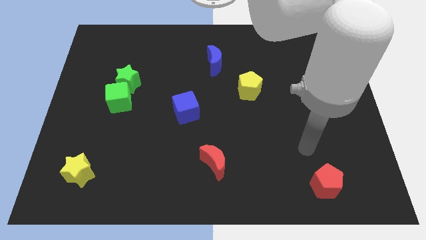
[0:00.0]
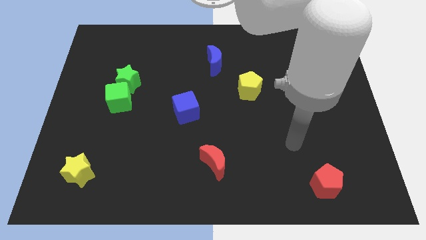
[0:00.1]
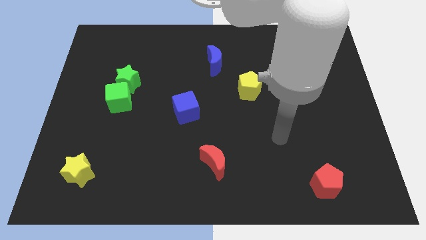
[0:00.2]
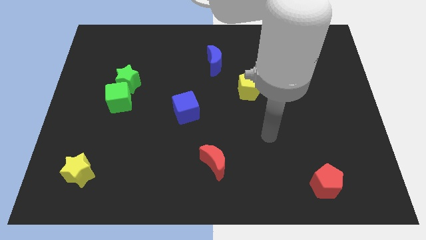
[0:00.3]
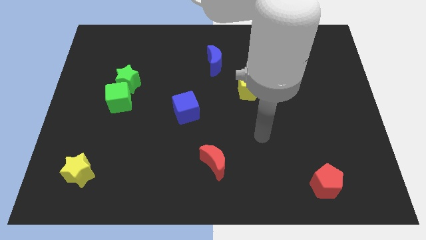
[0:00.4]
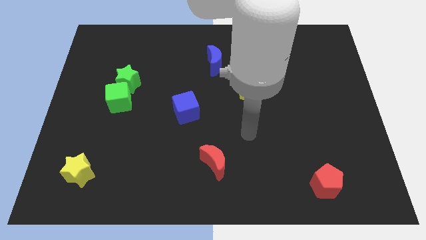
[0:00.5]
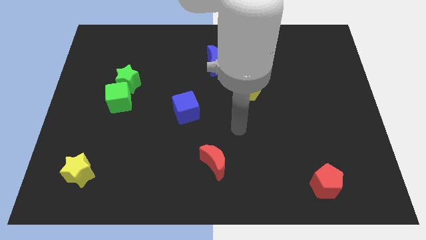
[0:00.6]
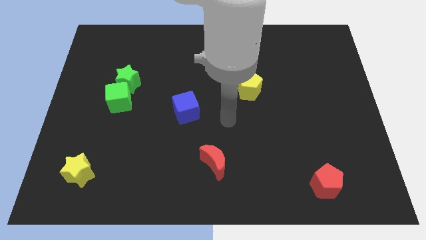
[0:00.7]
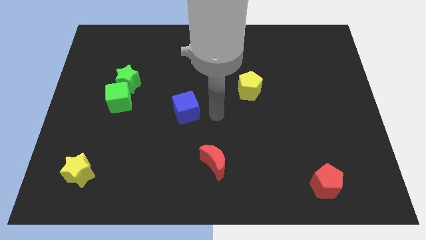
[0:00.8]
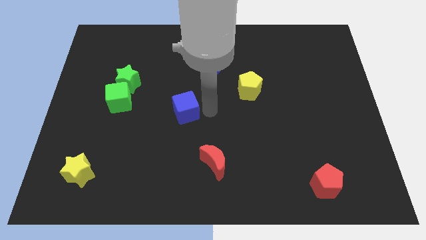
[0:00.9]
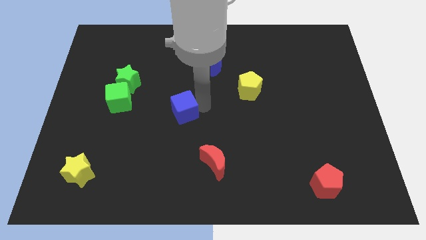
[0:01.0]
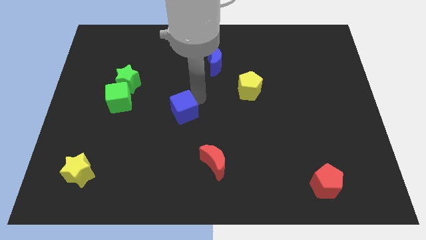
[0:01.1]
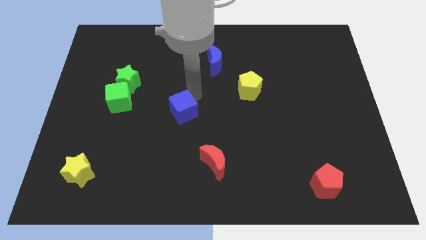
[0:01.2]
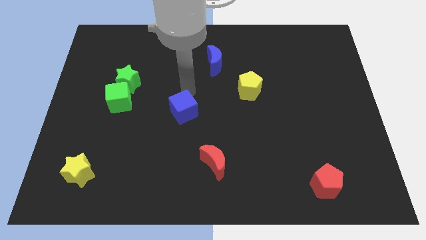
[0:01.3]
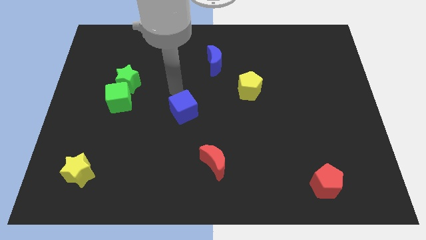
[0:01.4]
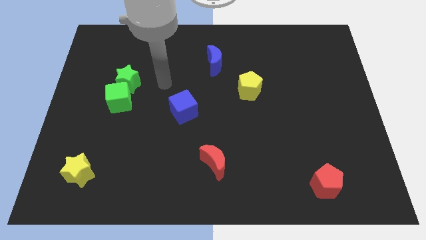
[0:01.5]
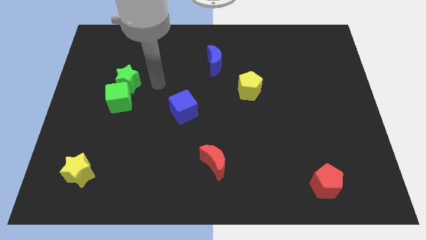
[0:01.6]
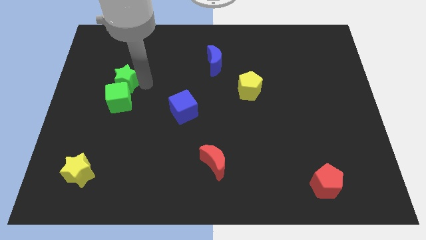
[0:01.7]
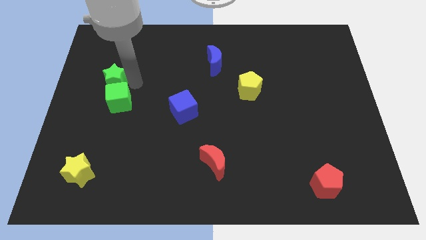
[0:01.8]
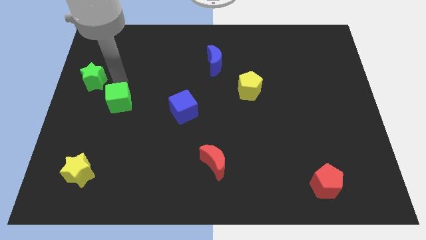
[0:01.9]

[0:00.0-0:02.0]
pull the green cube apart from the green star

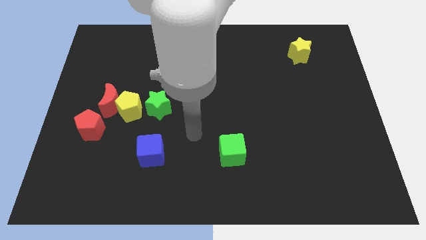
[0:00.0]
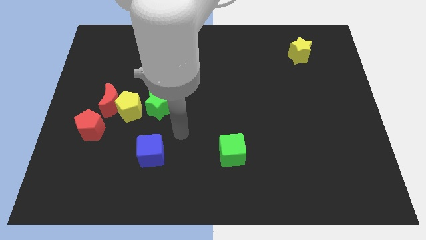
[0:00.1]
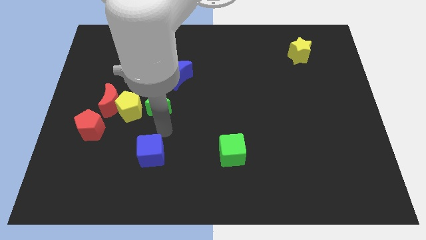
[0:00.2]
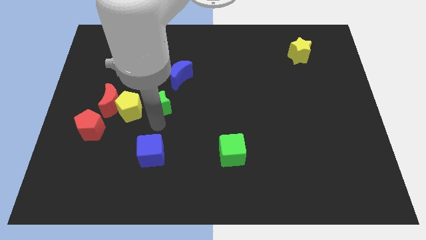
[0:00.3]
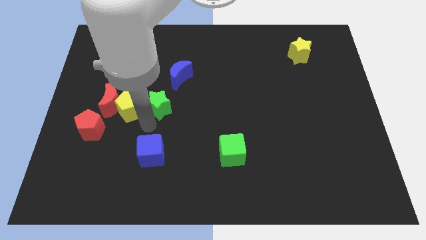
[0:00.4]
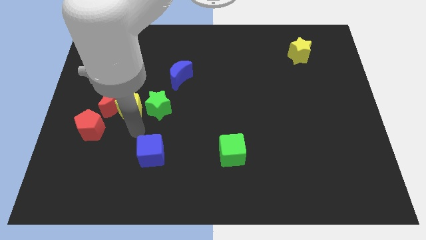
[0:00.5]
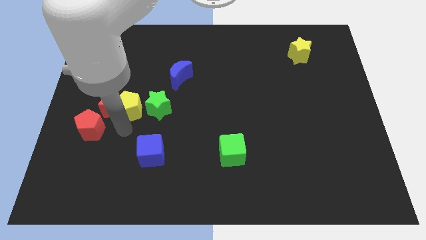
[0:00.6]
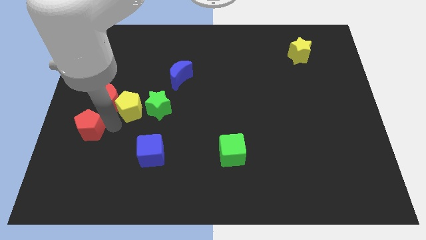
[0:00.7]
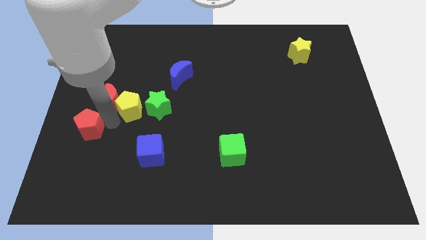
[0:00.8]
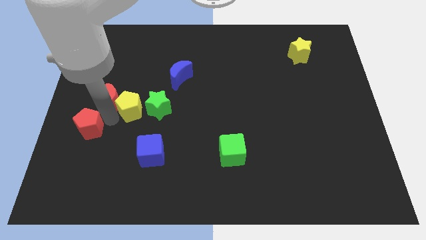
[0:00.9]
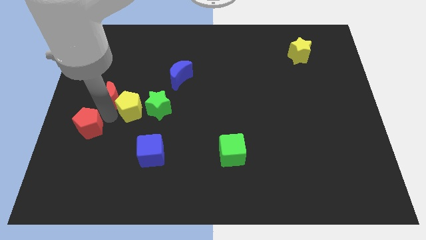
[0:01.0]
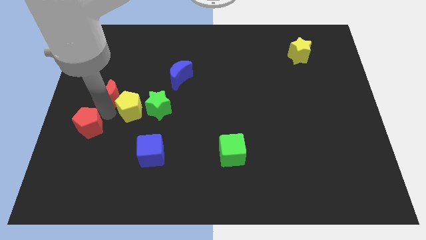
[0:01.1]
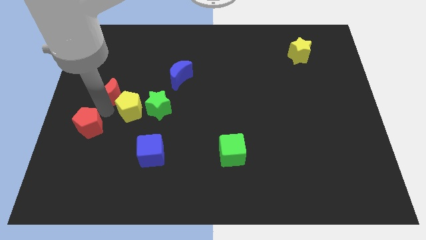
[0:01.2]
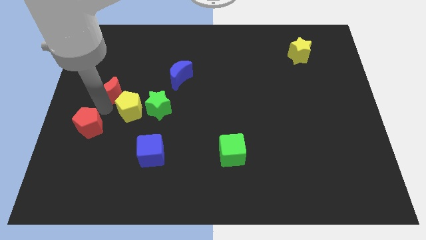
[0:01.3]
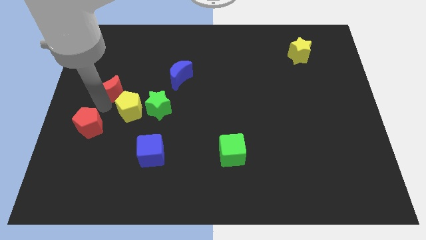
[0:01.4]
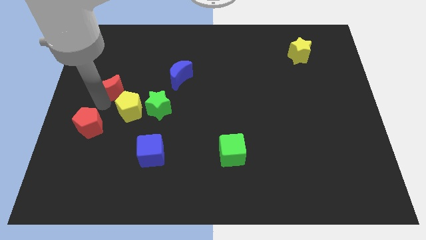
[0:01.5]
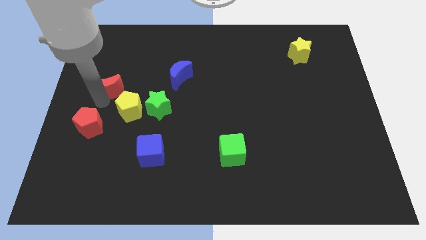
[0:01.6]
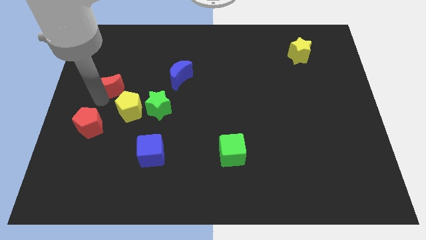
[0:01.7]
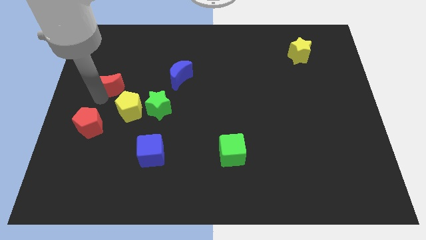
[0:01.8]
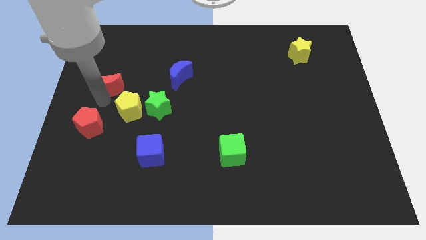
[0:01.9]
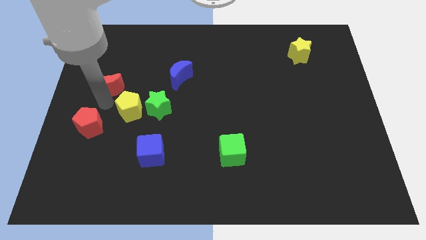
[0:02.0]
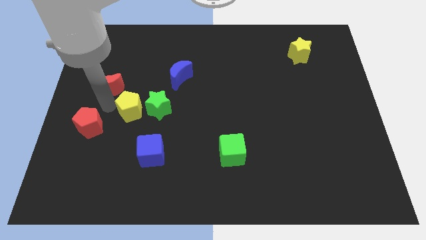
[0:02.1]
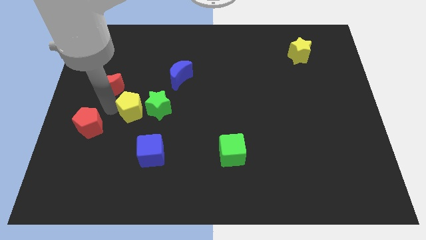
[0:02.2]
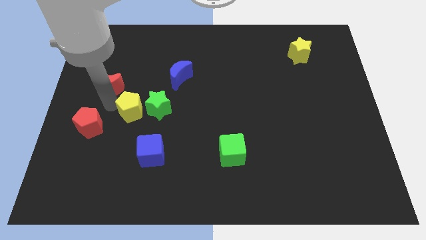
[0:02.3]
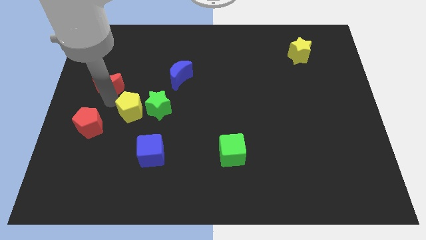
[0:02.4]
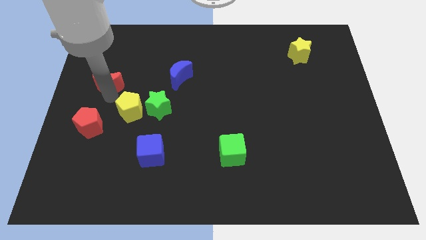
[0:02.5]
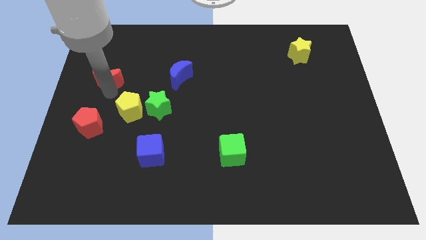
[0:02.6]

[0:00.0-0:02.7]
separate the red moon from the yellow pentagon and red pentagon

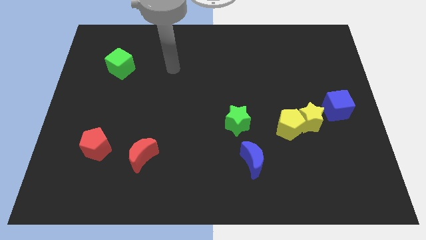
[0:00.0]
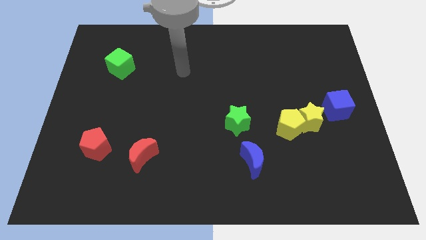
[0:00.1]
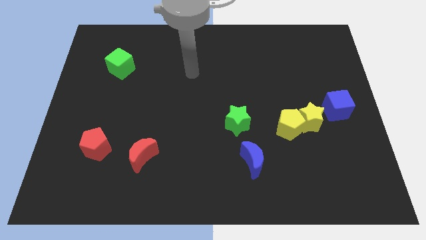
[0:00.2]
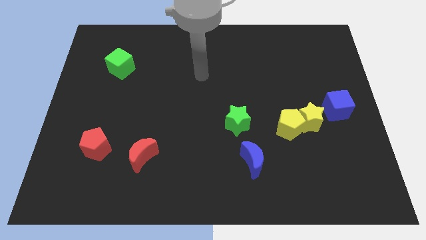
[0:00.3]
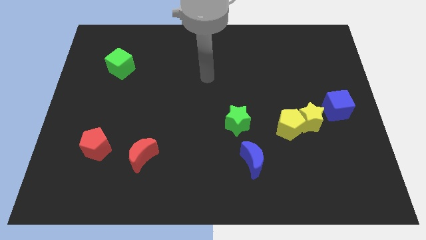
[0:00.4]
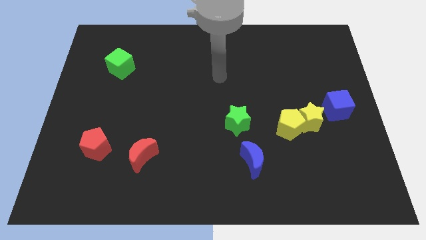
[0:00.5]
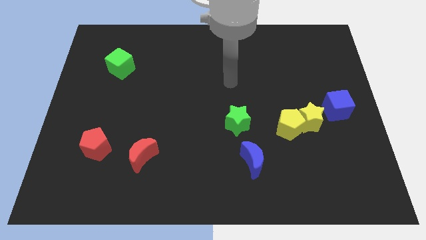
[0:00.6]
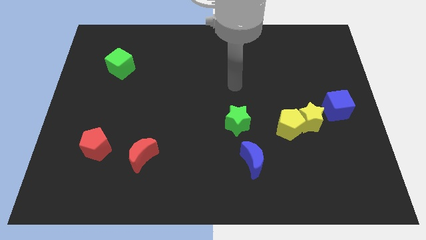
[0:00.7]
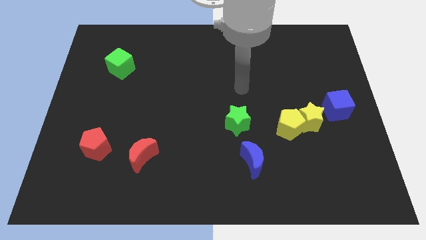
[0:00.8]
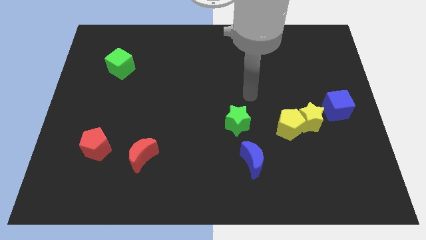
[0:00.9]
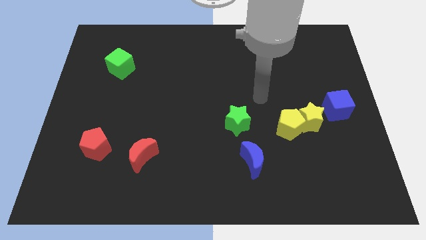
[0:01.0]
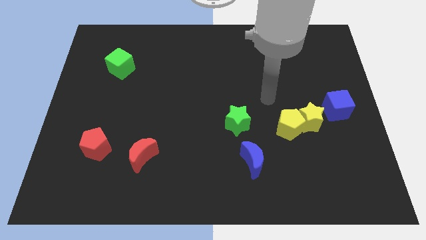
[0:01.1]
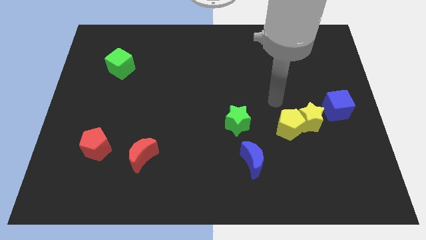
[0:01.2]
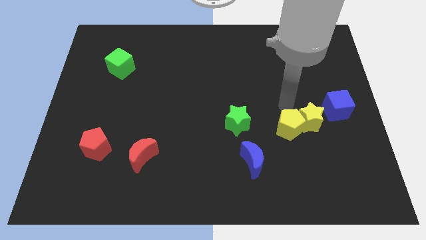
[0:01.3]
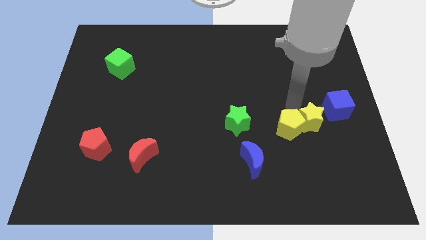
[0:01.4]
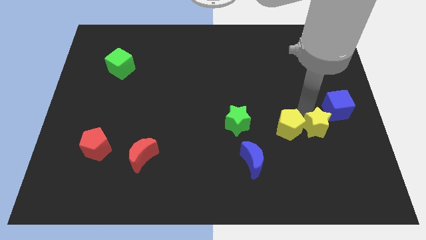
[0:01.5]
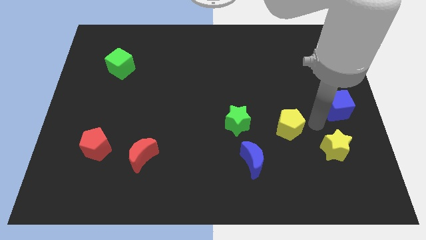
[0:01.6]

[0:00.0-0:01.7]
pull the yellow pentagon apart from the yellow star

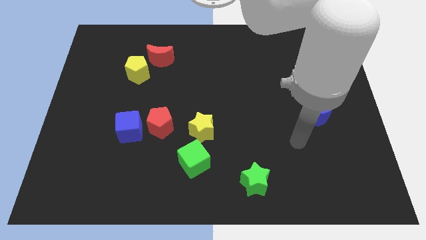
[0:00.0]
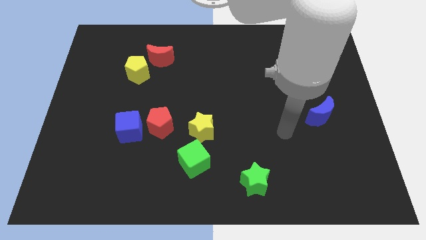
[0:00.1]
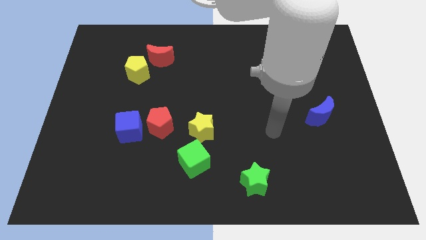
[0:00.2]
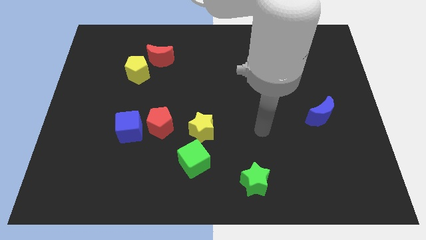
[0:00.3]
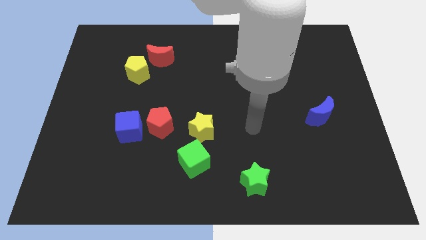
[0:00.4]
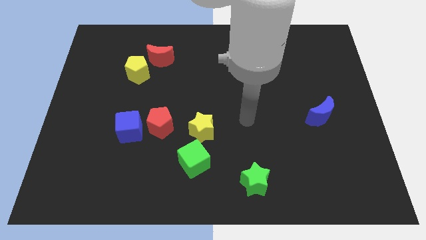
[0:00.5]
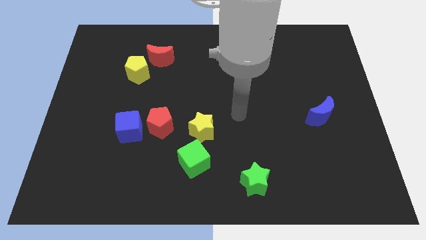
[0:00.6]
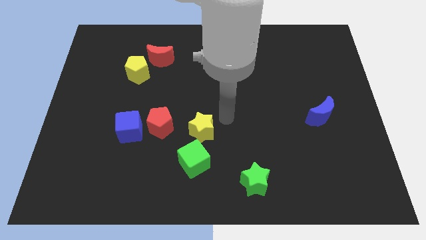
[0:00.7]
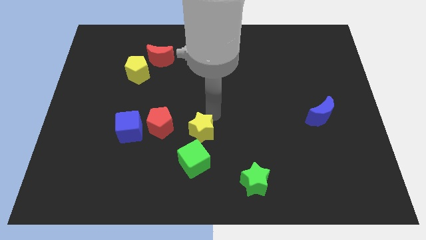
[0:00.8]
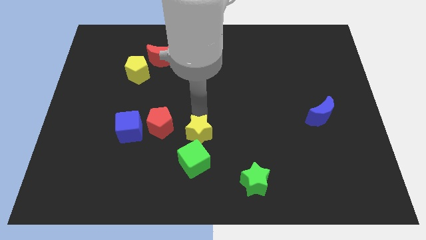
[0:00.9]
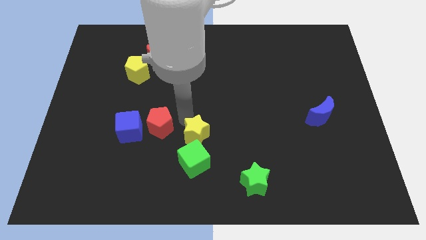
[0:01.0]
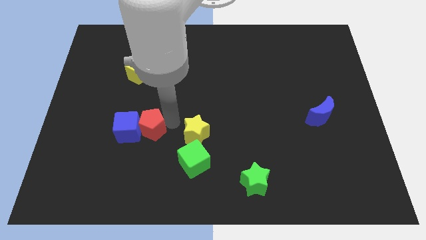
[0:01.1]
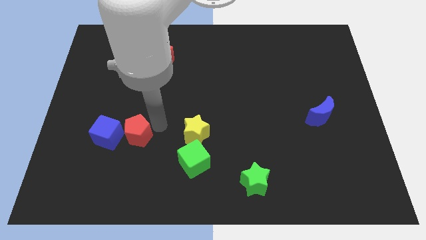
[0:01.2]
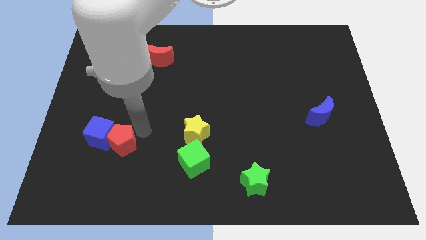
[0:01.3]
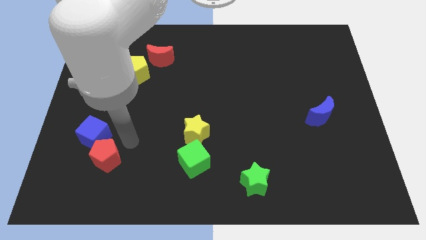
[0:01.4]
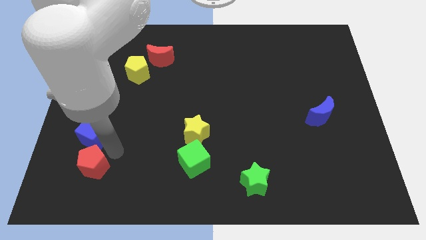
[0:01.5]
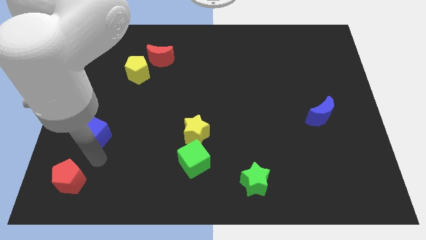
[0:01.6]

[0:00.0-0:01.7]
move the blue cube away from the red pentagon

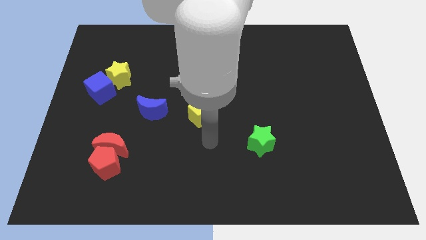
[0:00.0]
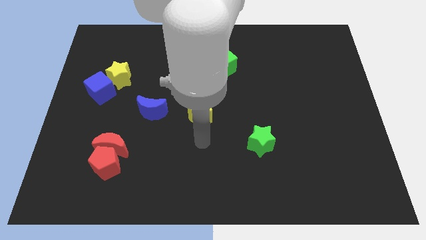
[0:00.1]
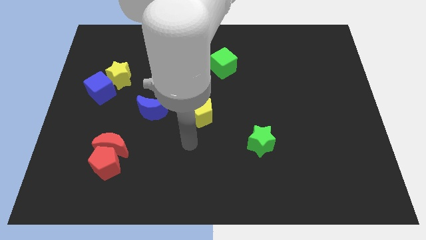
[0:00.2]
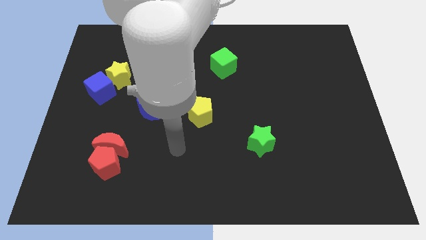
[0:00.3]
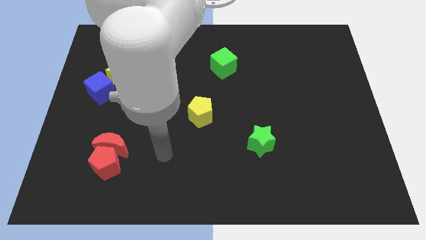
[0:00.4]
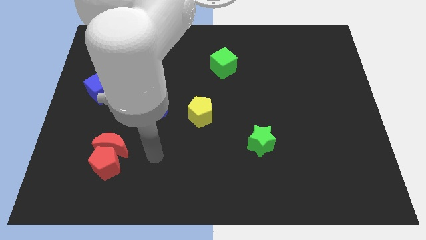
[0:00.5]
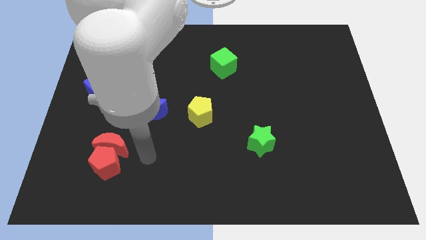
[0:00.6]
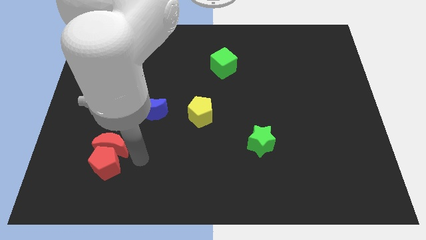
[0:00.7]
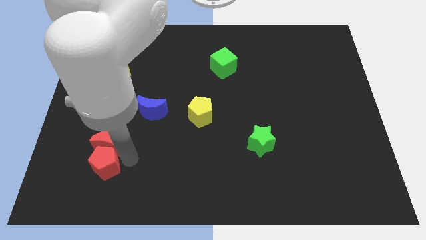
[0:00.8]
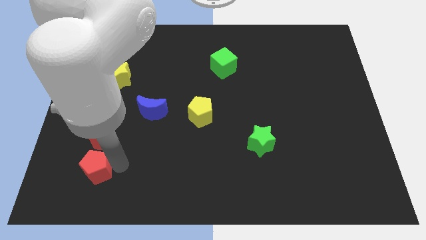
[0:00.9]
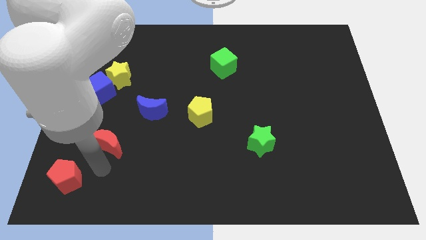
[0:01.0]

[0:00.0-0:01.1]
separate the red moon from the red pentagon
